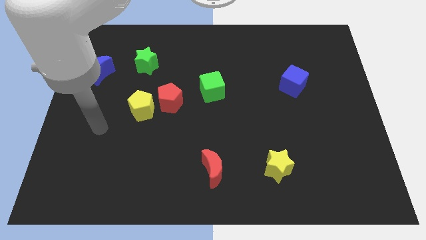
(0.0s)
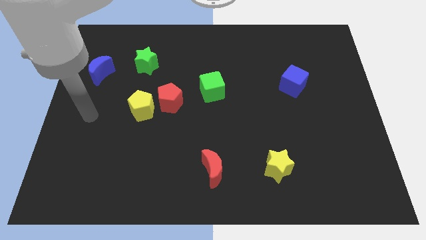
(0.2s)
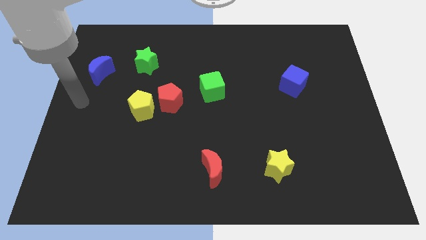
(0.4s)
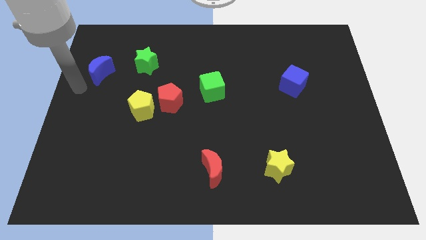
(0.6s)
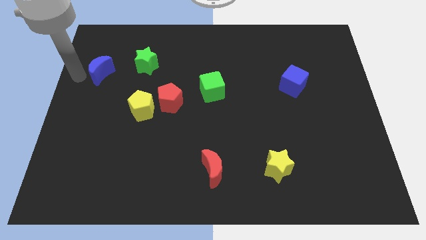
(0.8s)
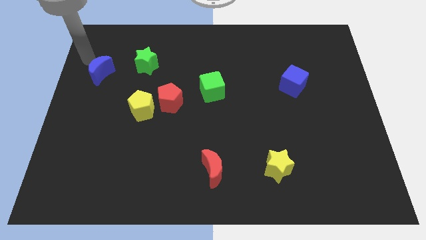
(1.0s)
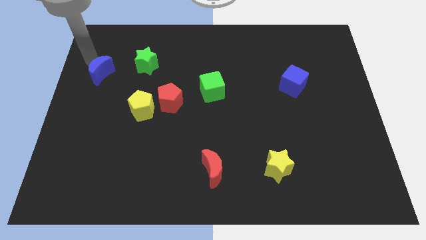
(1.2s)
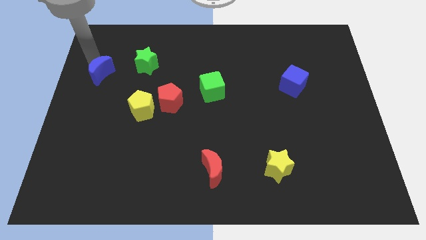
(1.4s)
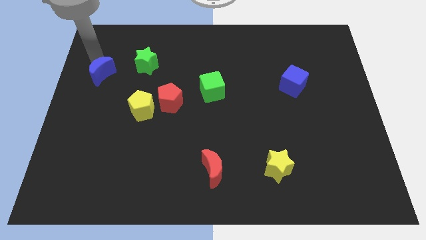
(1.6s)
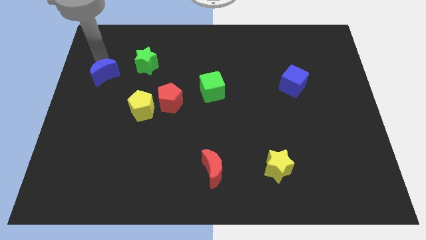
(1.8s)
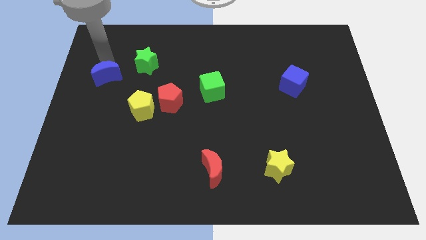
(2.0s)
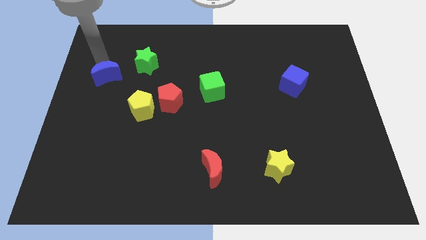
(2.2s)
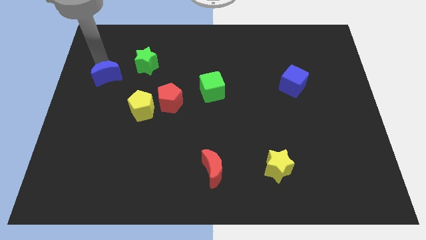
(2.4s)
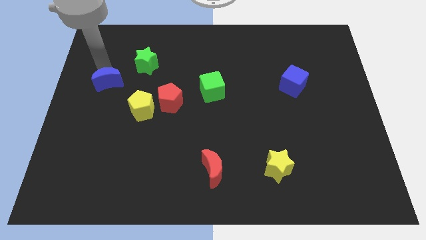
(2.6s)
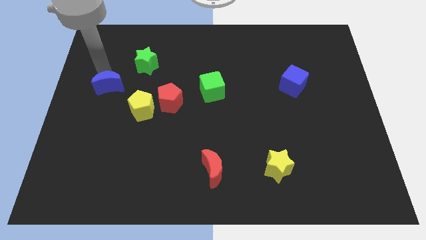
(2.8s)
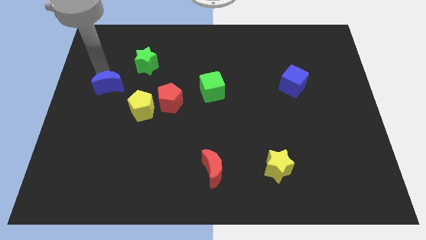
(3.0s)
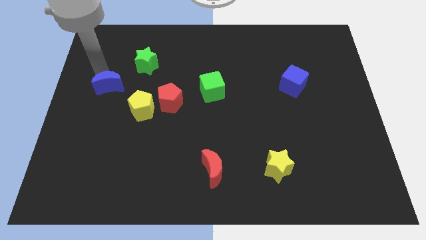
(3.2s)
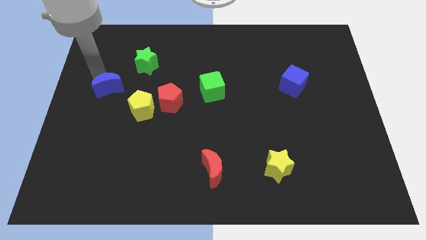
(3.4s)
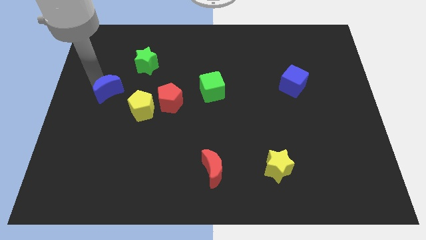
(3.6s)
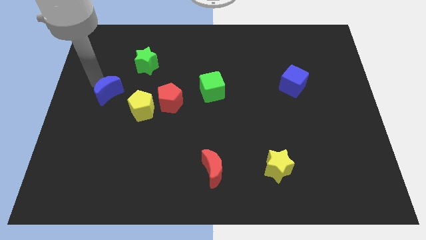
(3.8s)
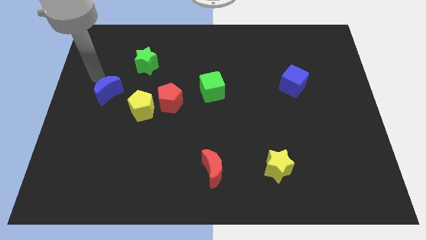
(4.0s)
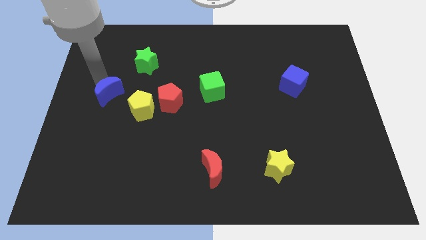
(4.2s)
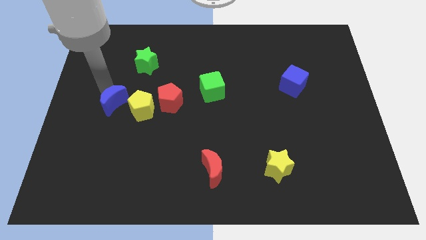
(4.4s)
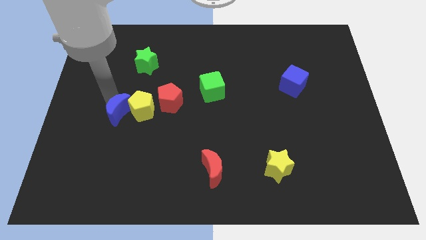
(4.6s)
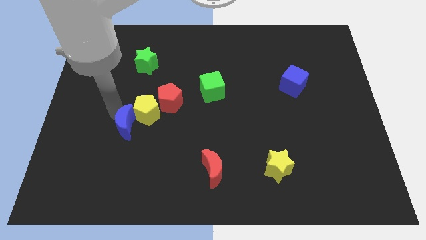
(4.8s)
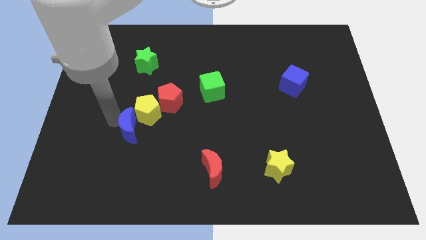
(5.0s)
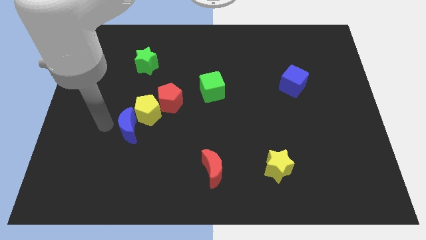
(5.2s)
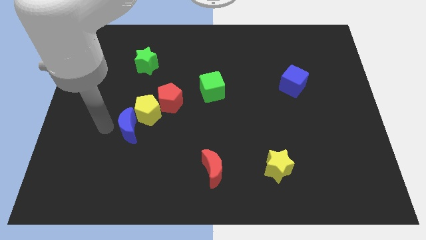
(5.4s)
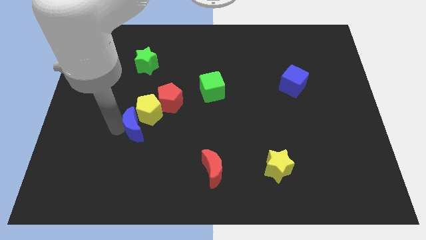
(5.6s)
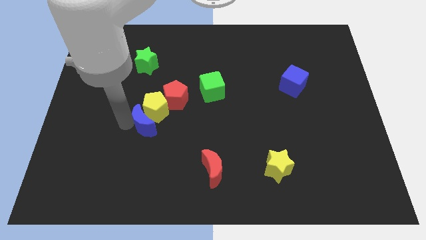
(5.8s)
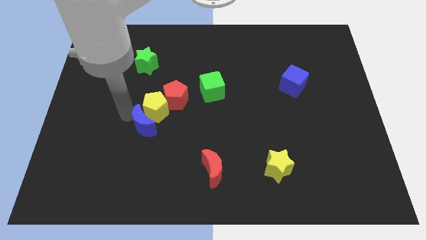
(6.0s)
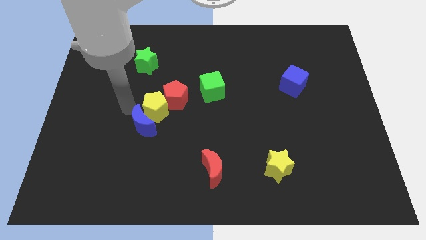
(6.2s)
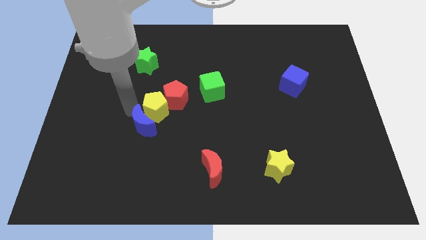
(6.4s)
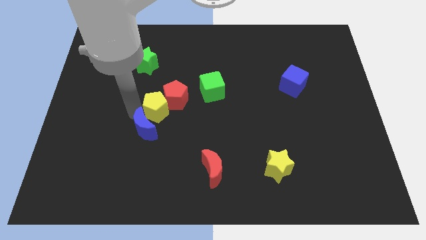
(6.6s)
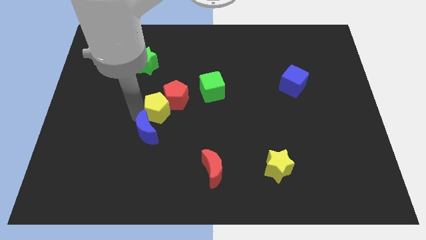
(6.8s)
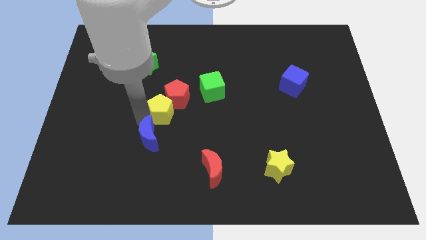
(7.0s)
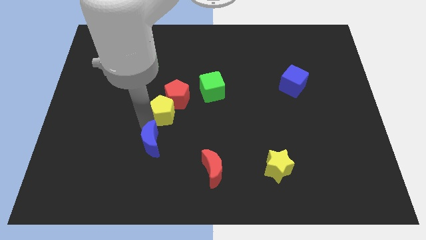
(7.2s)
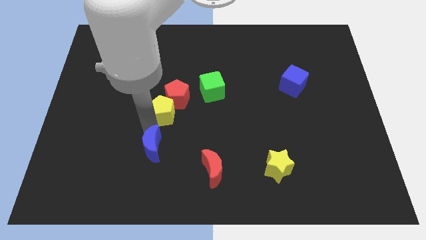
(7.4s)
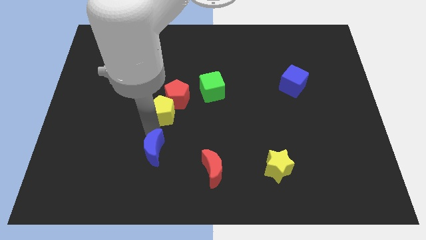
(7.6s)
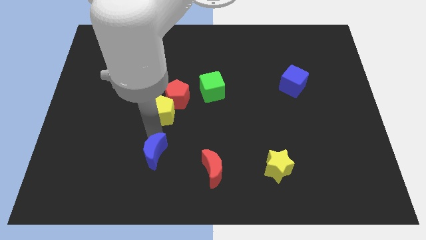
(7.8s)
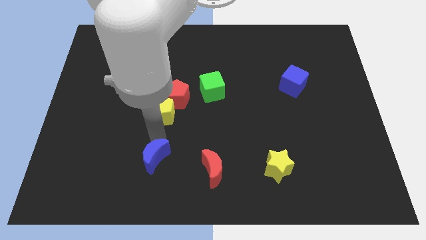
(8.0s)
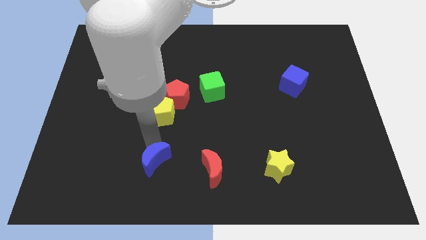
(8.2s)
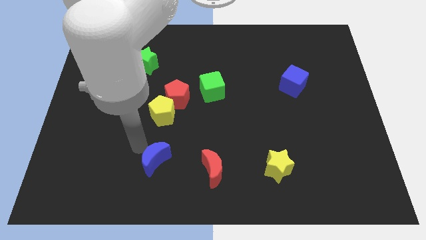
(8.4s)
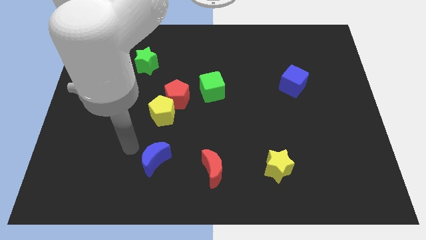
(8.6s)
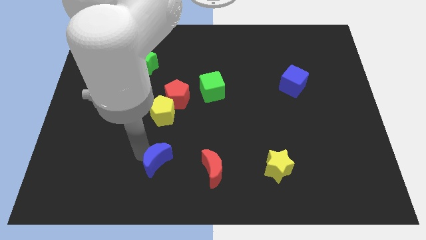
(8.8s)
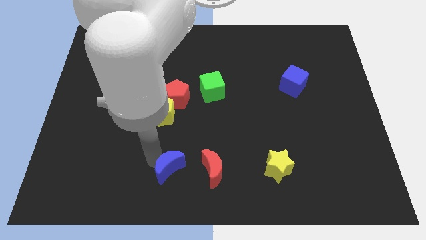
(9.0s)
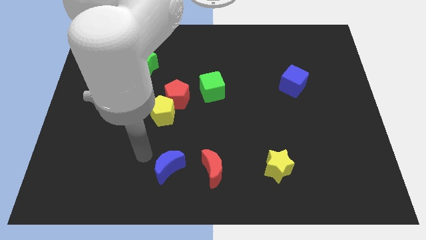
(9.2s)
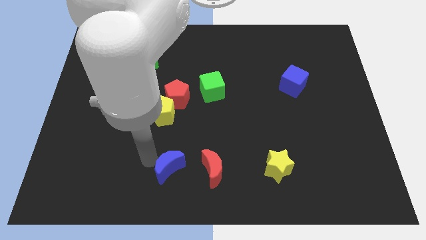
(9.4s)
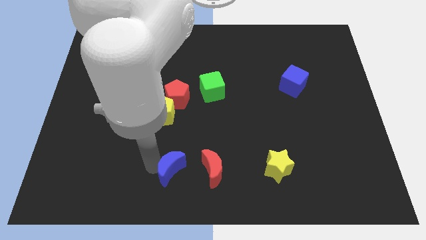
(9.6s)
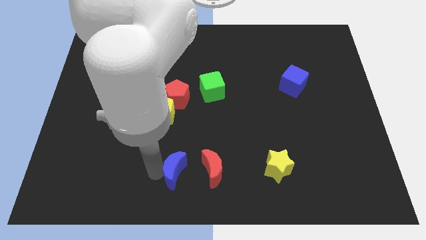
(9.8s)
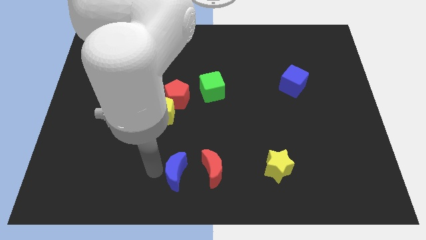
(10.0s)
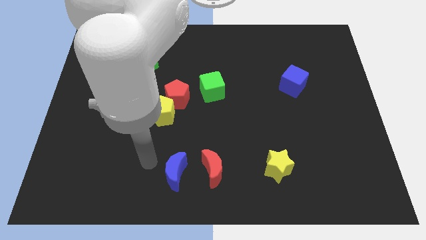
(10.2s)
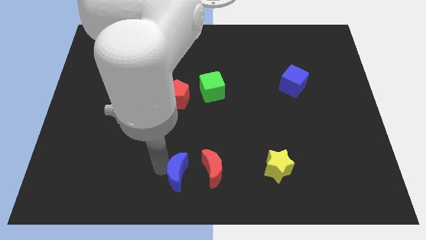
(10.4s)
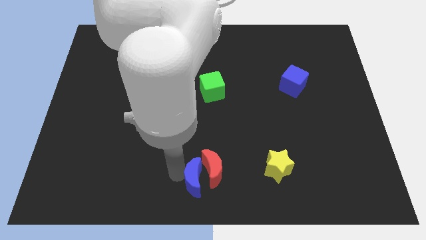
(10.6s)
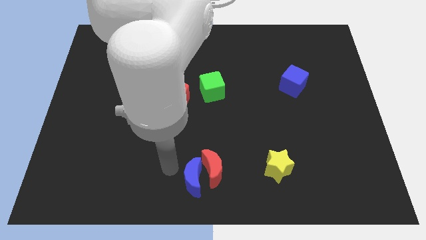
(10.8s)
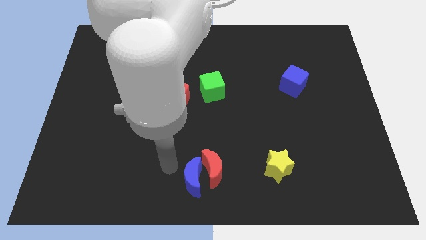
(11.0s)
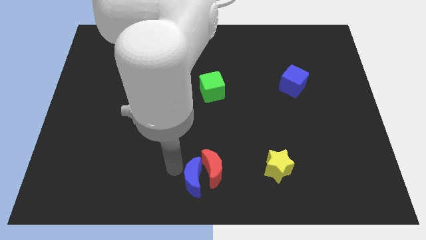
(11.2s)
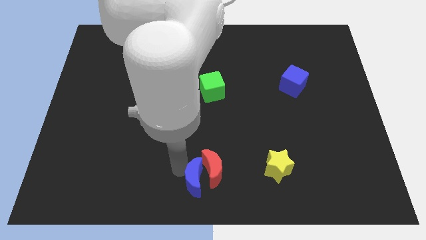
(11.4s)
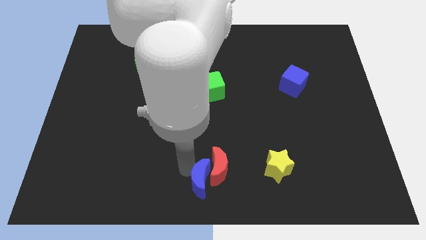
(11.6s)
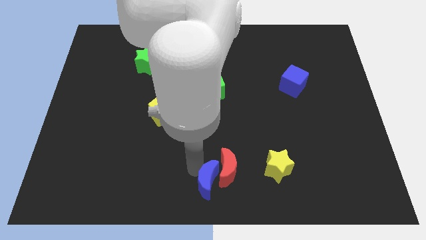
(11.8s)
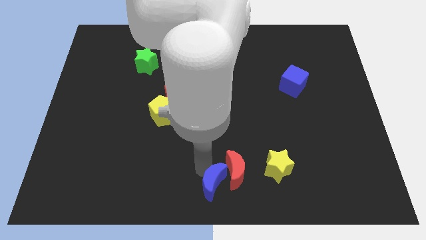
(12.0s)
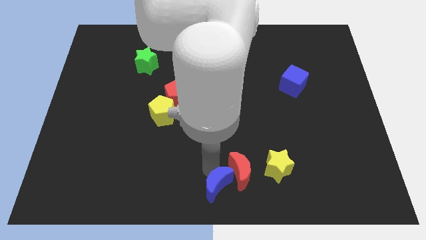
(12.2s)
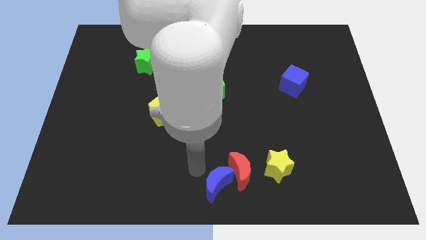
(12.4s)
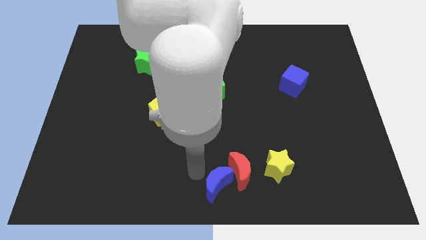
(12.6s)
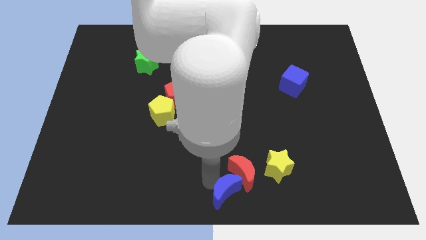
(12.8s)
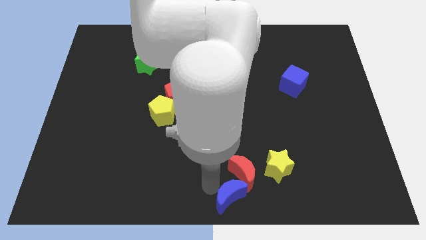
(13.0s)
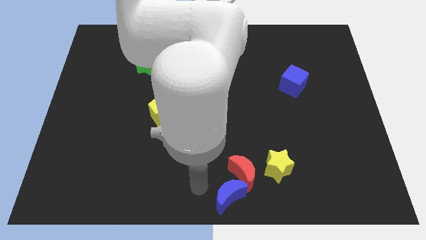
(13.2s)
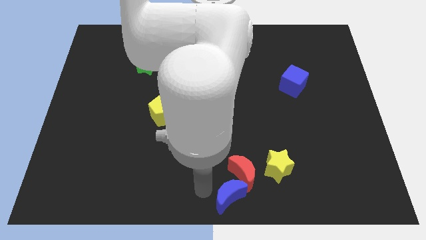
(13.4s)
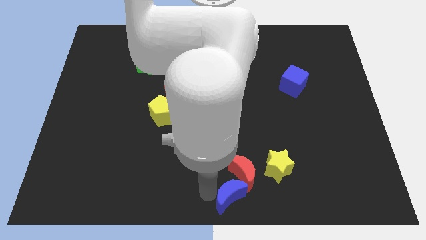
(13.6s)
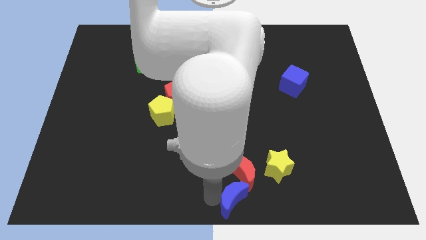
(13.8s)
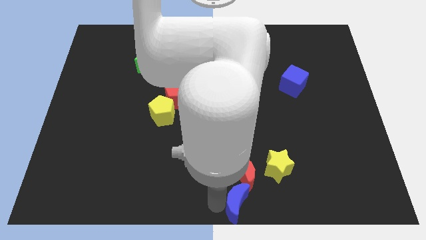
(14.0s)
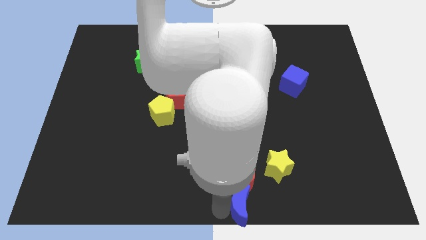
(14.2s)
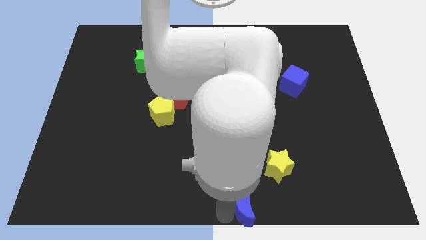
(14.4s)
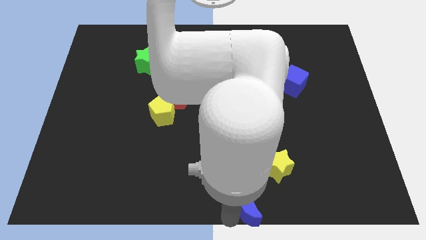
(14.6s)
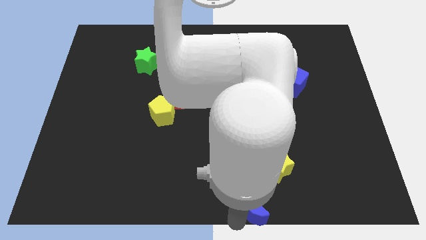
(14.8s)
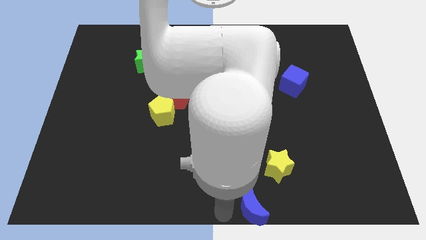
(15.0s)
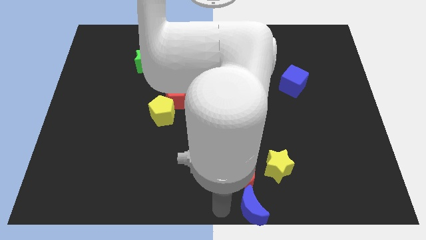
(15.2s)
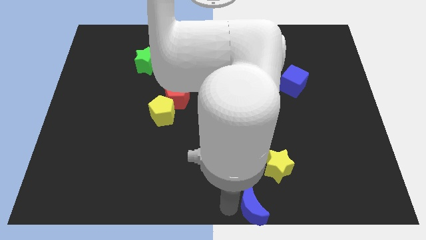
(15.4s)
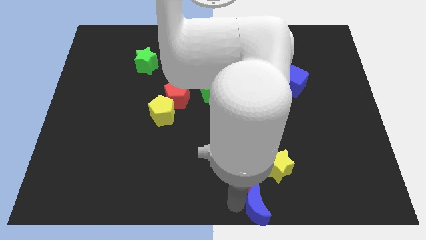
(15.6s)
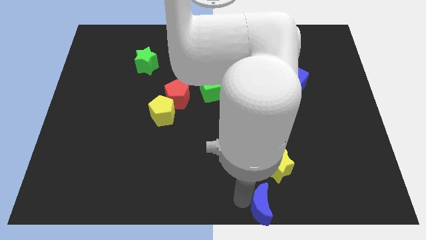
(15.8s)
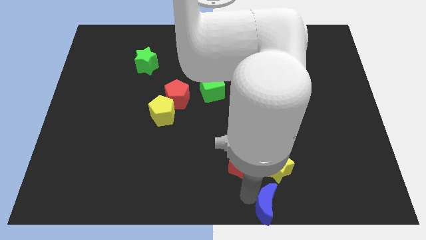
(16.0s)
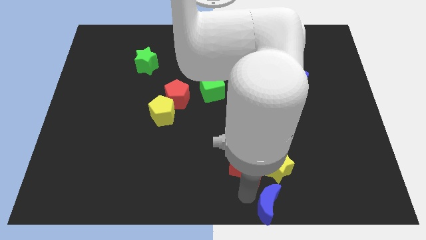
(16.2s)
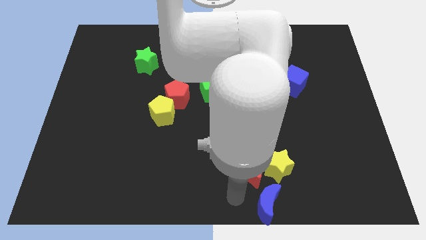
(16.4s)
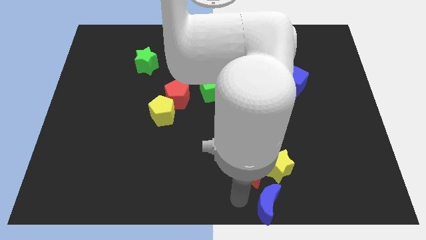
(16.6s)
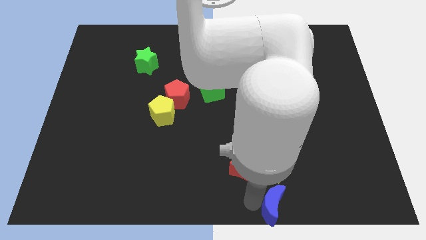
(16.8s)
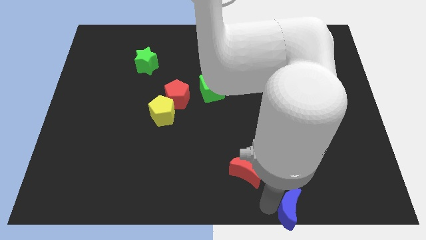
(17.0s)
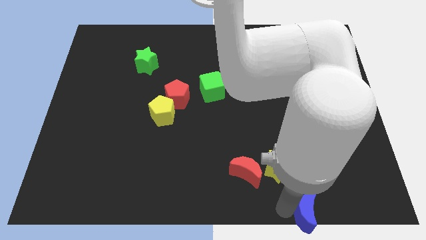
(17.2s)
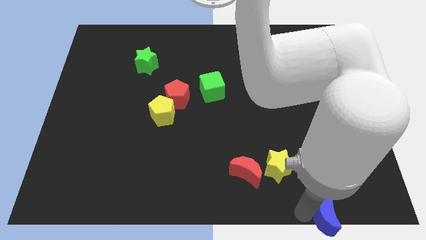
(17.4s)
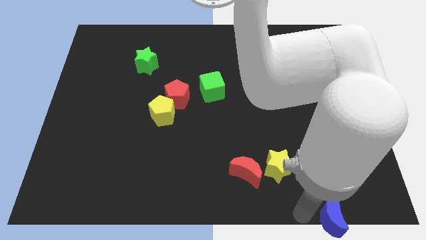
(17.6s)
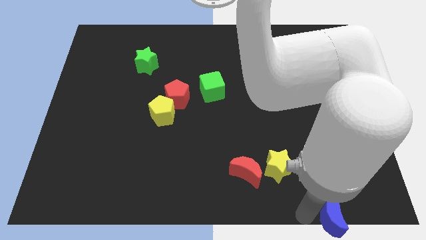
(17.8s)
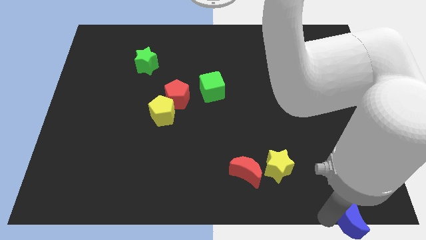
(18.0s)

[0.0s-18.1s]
put the blue moon to the bottom right
